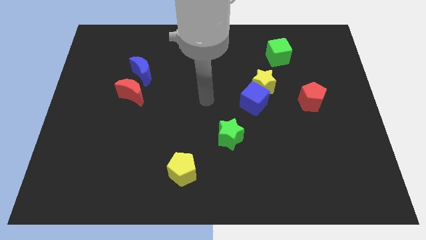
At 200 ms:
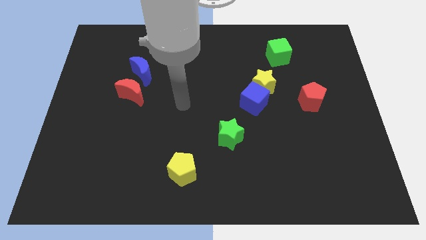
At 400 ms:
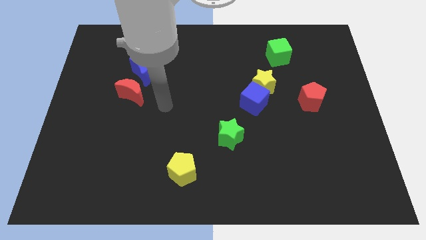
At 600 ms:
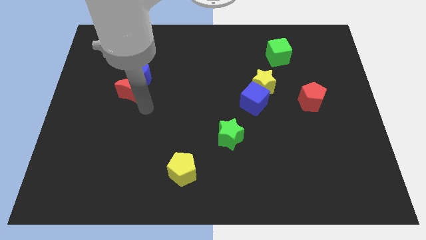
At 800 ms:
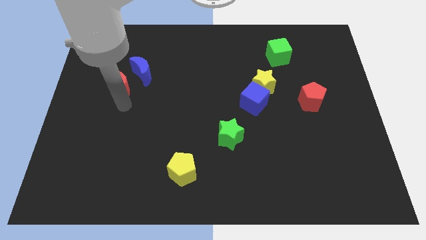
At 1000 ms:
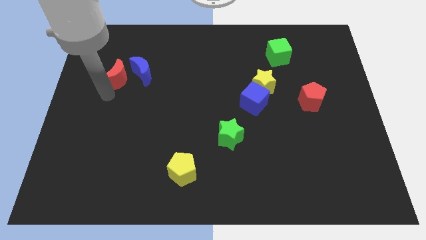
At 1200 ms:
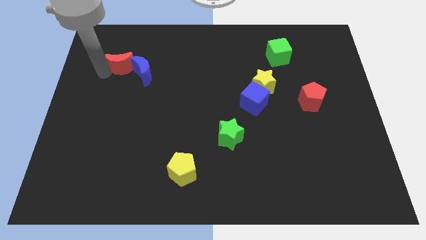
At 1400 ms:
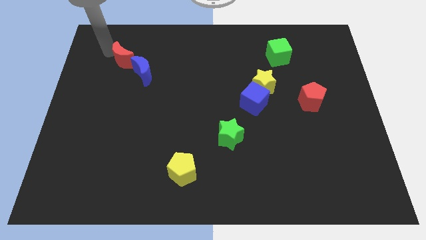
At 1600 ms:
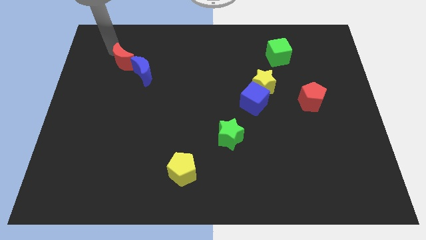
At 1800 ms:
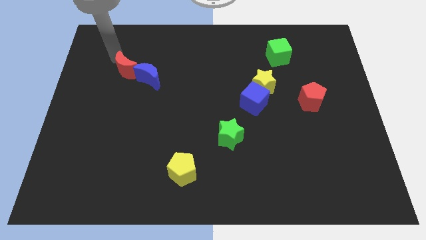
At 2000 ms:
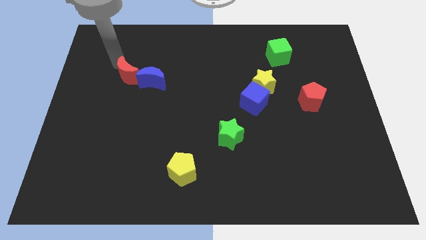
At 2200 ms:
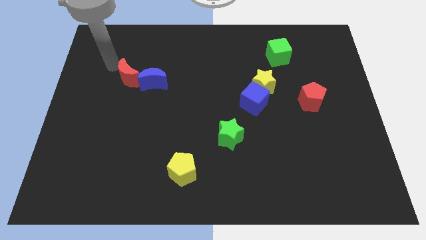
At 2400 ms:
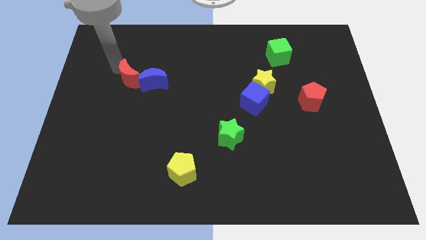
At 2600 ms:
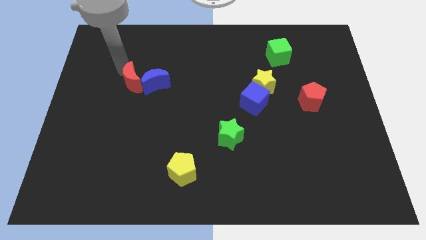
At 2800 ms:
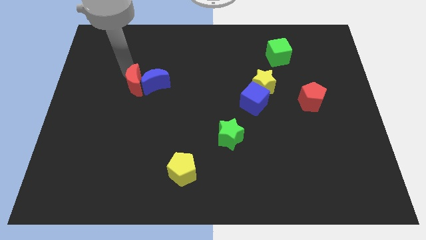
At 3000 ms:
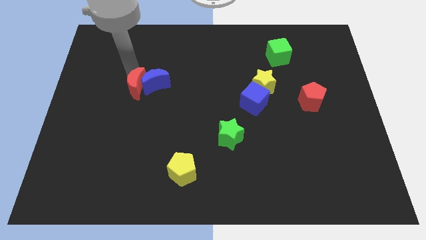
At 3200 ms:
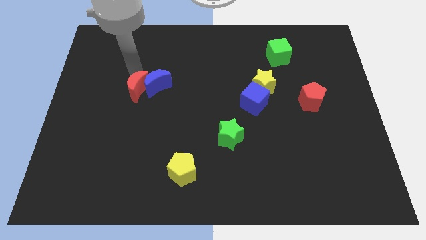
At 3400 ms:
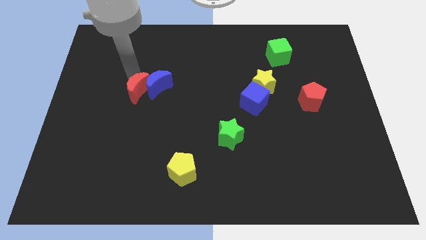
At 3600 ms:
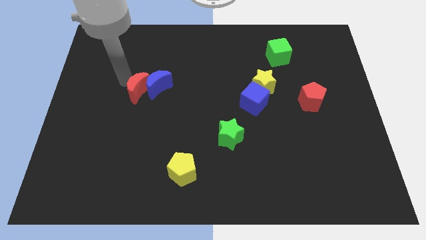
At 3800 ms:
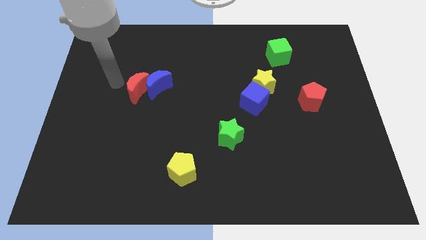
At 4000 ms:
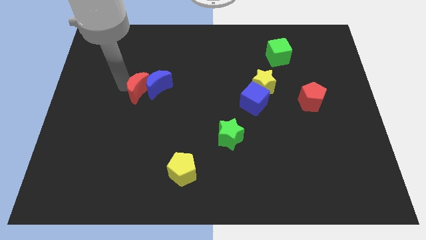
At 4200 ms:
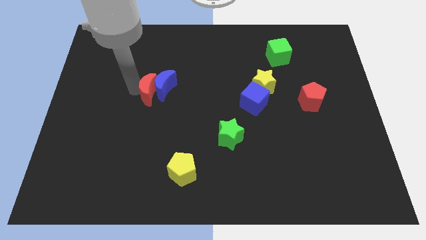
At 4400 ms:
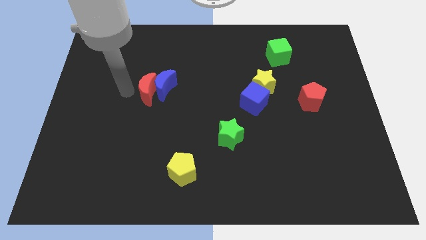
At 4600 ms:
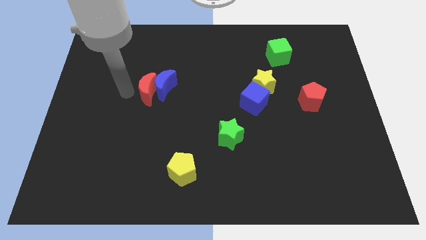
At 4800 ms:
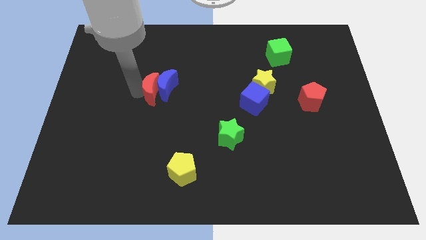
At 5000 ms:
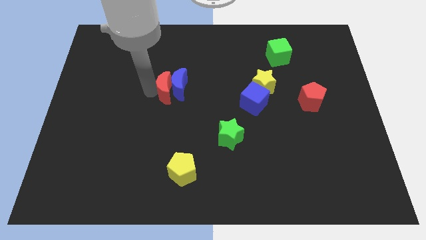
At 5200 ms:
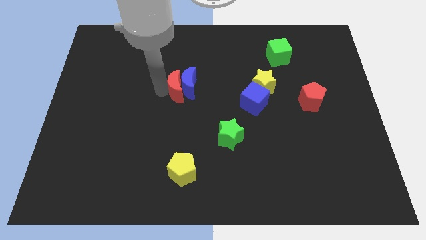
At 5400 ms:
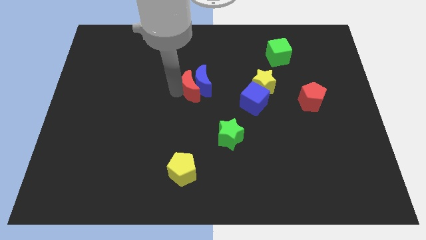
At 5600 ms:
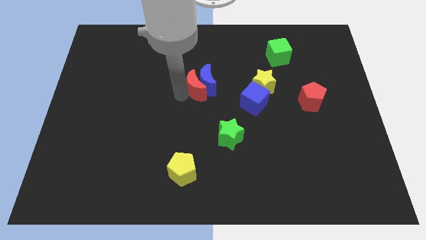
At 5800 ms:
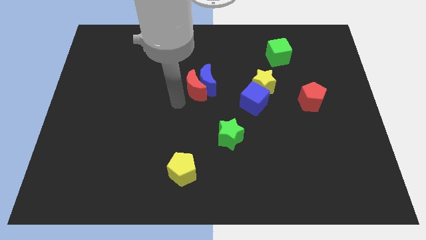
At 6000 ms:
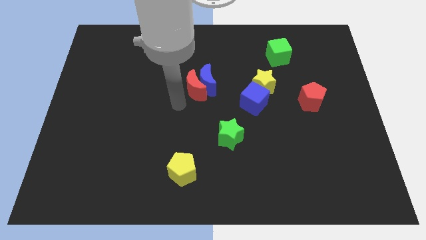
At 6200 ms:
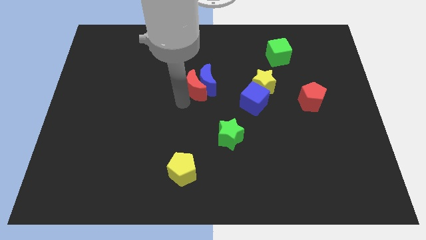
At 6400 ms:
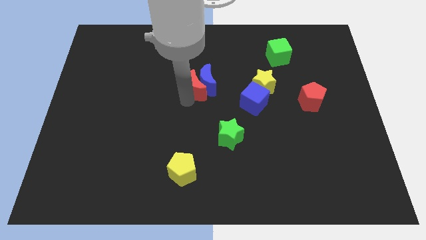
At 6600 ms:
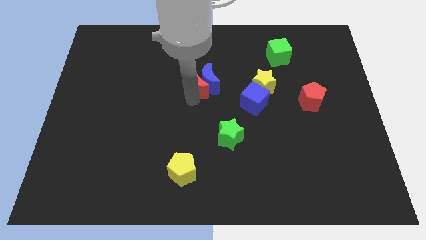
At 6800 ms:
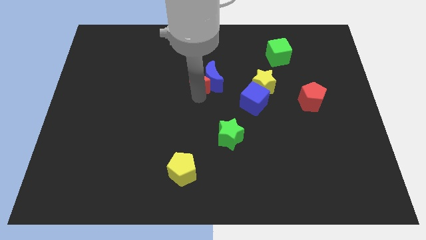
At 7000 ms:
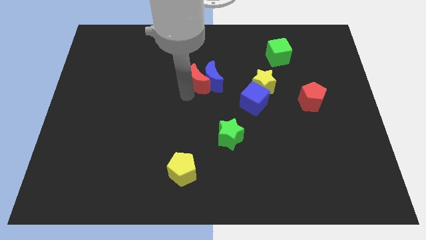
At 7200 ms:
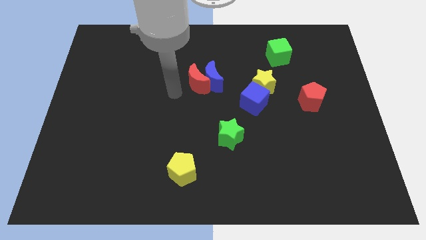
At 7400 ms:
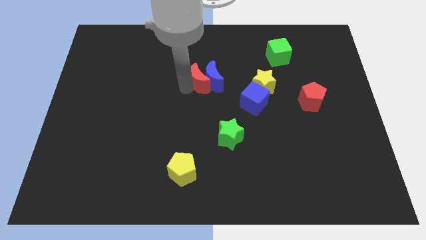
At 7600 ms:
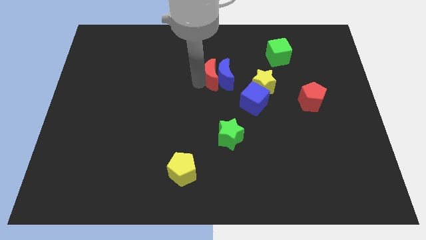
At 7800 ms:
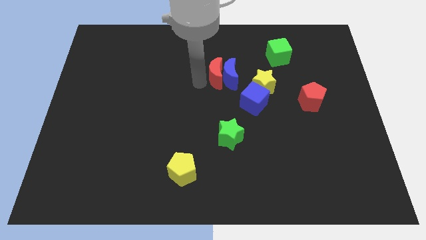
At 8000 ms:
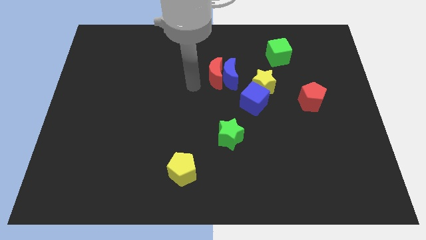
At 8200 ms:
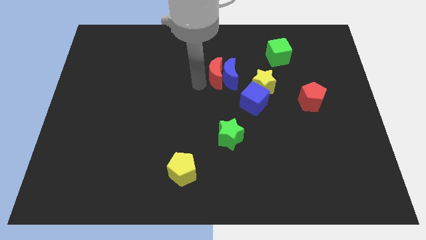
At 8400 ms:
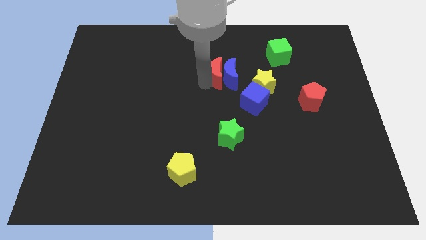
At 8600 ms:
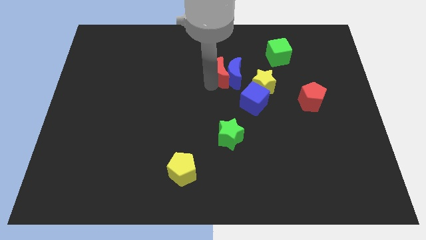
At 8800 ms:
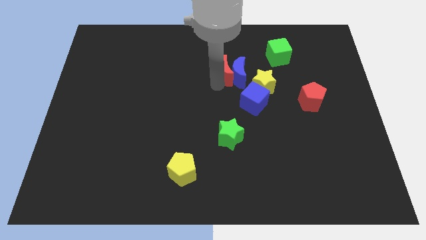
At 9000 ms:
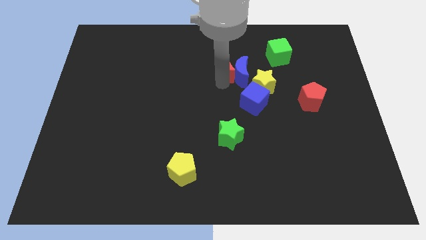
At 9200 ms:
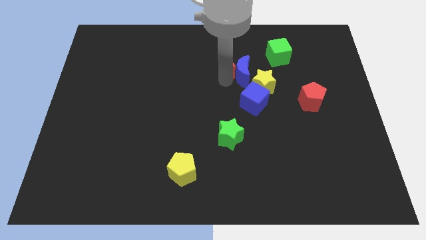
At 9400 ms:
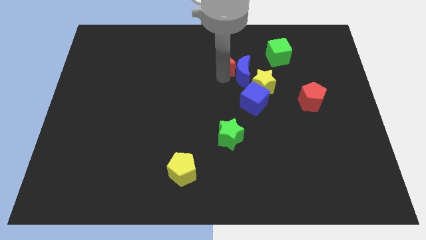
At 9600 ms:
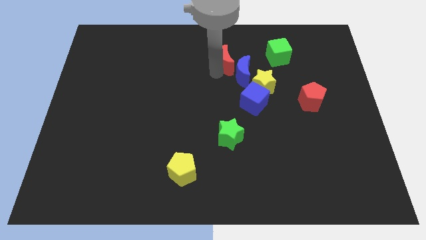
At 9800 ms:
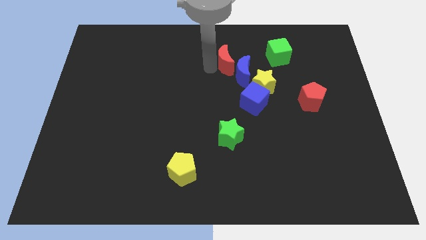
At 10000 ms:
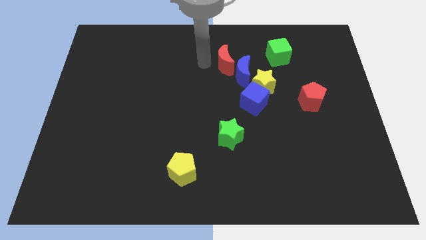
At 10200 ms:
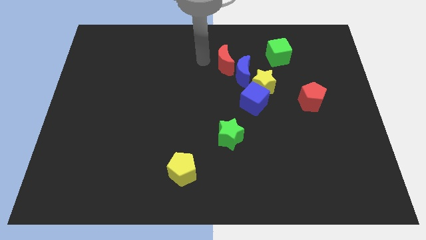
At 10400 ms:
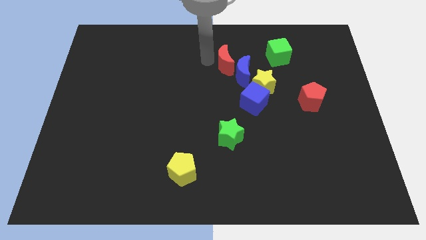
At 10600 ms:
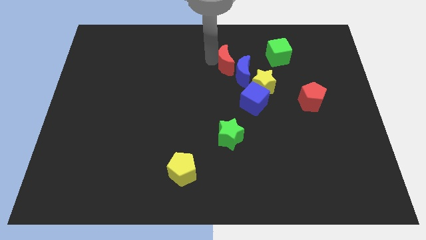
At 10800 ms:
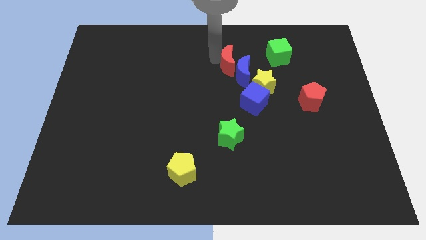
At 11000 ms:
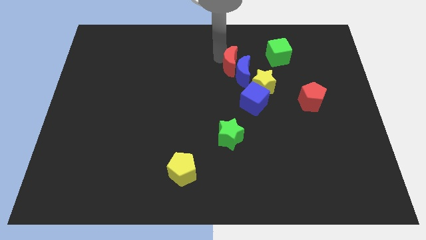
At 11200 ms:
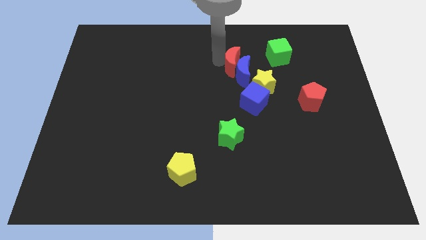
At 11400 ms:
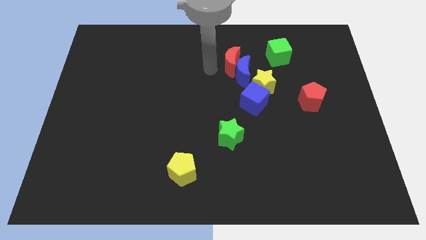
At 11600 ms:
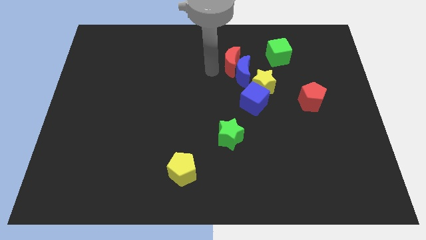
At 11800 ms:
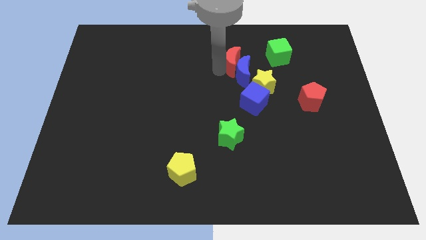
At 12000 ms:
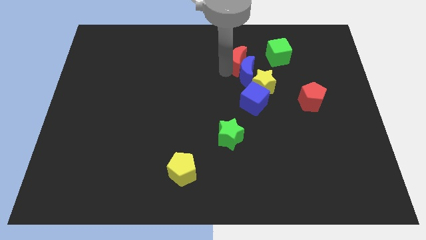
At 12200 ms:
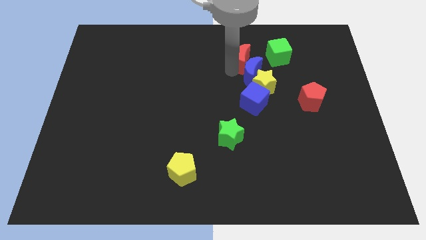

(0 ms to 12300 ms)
move the red moon to the top side of the yellow star

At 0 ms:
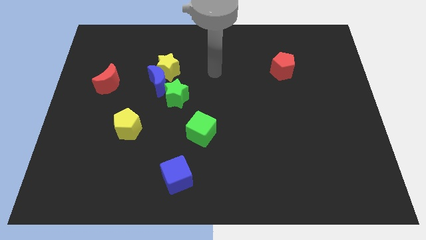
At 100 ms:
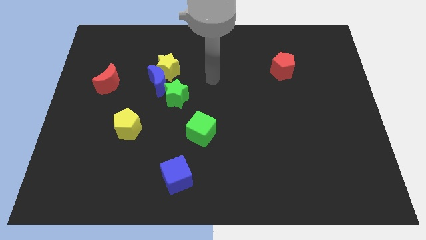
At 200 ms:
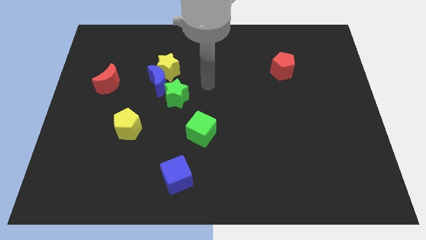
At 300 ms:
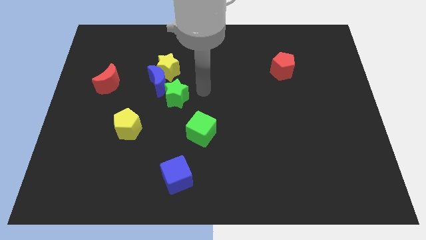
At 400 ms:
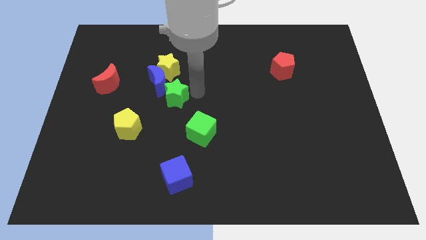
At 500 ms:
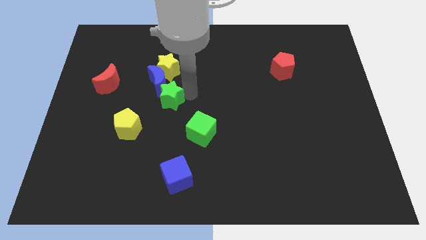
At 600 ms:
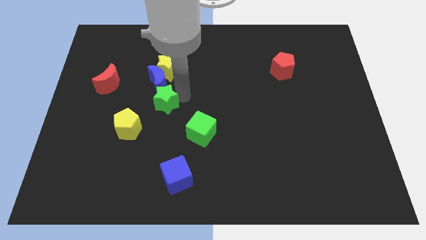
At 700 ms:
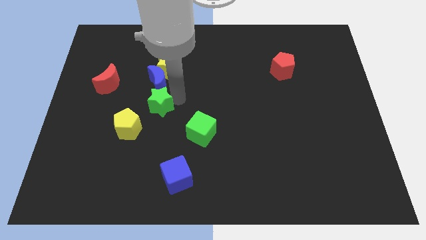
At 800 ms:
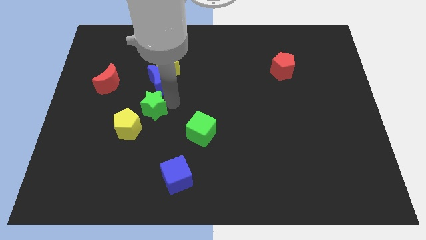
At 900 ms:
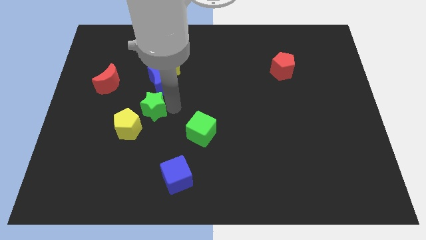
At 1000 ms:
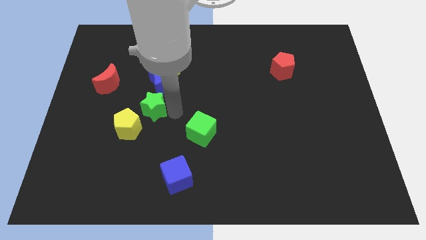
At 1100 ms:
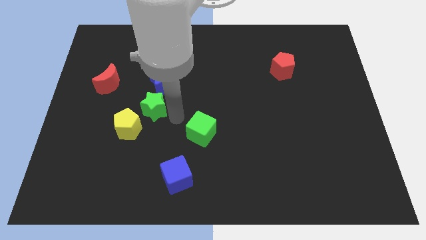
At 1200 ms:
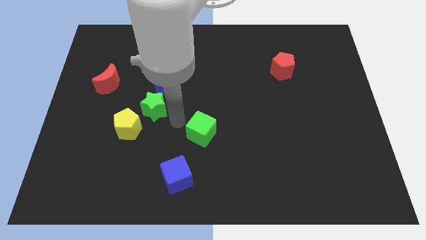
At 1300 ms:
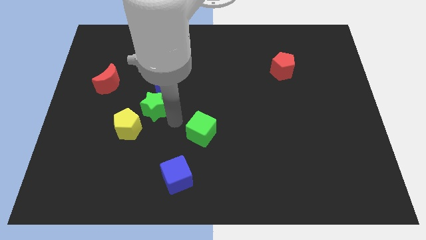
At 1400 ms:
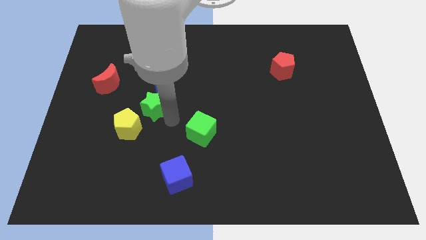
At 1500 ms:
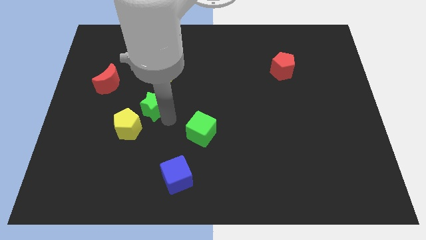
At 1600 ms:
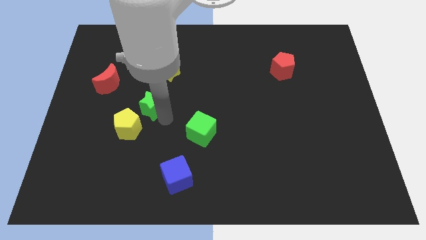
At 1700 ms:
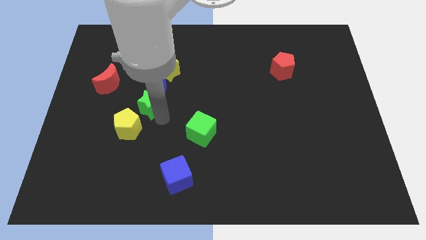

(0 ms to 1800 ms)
push the green star to the bottom left side of the blue moon
